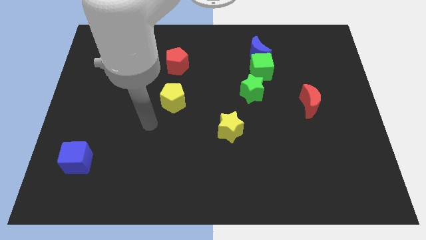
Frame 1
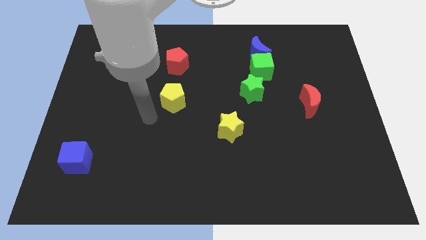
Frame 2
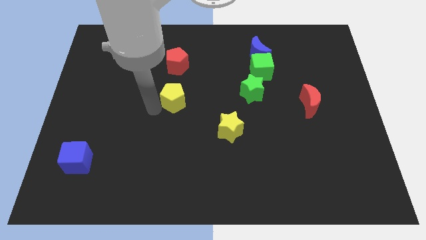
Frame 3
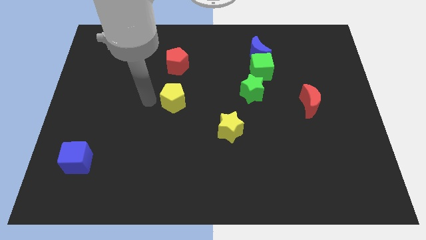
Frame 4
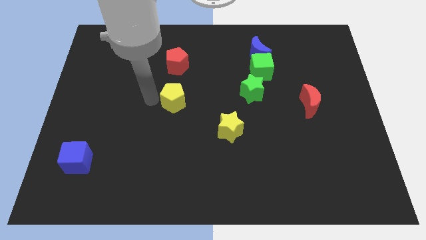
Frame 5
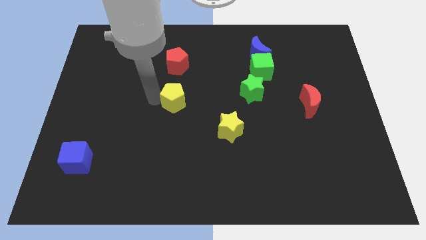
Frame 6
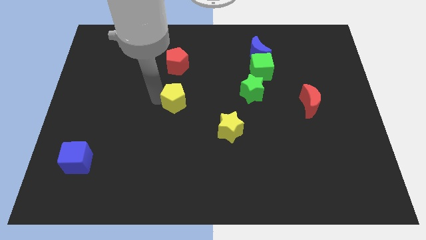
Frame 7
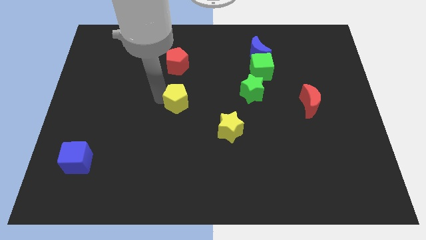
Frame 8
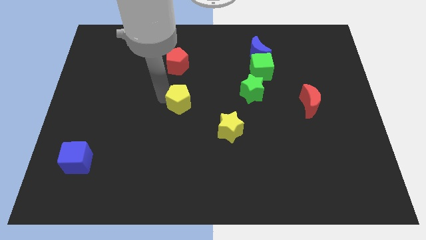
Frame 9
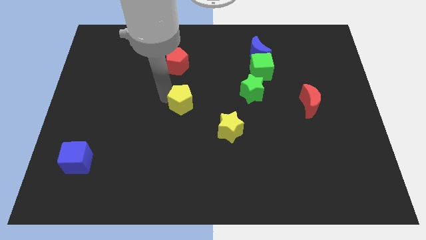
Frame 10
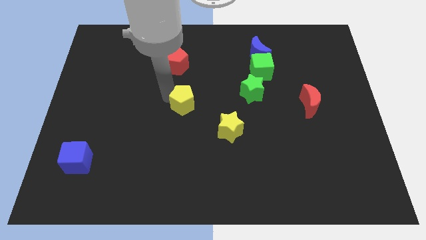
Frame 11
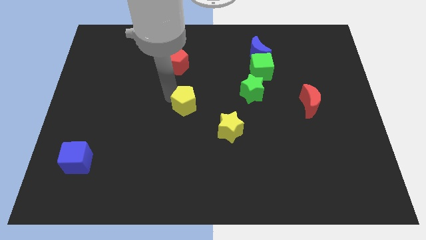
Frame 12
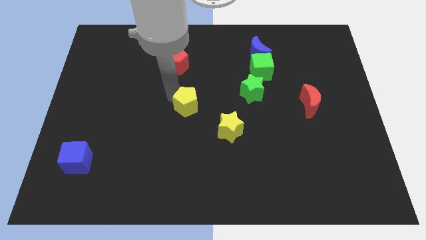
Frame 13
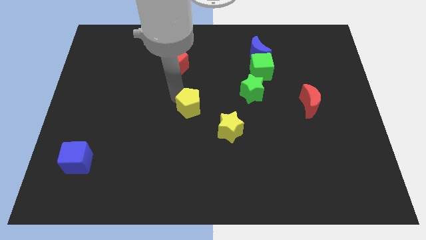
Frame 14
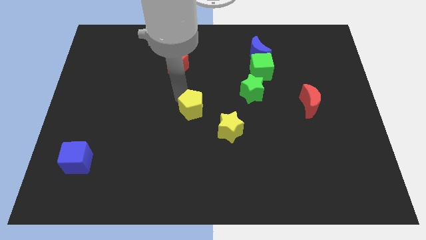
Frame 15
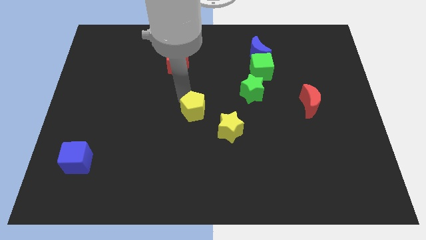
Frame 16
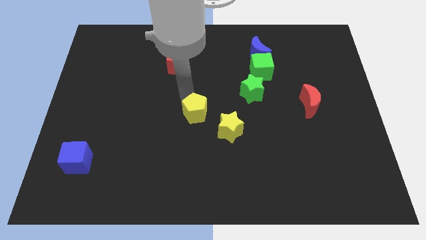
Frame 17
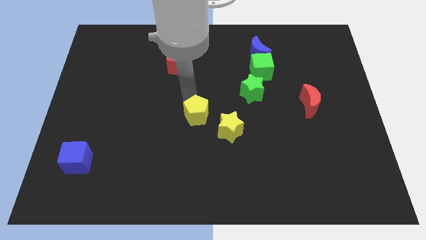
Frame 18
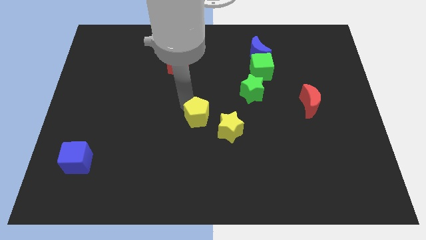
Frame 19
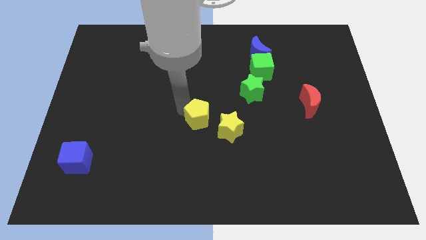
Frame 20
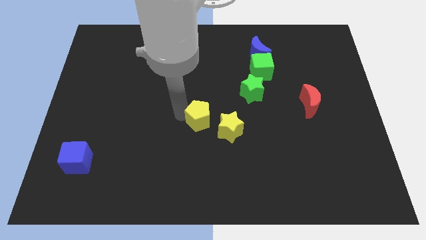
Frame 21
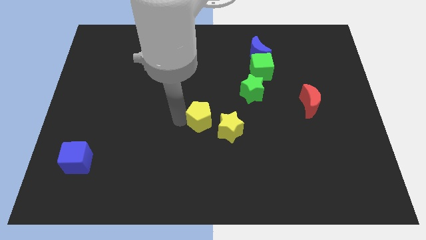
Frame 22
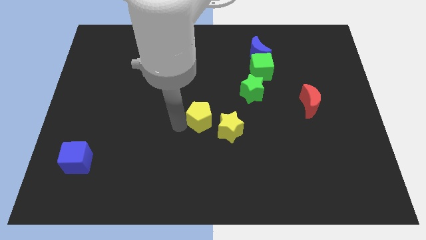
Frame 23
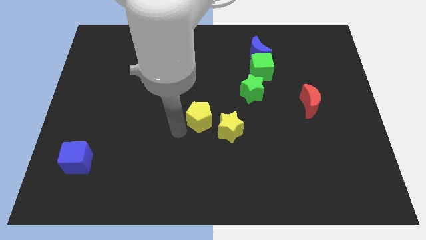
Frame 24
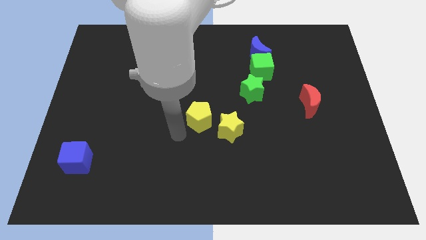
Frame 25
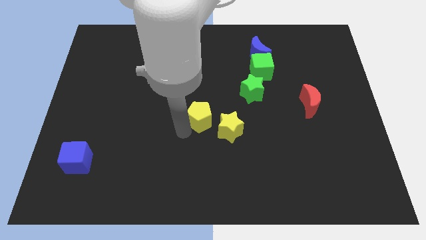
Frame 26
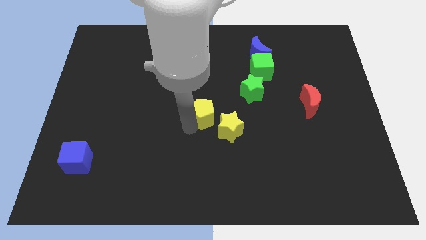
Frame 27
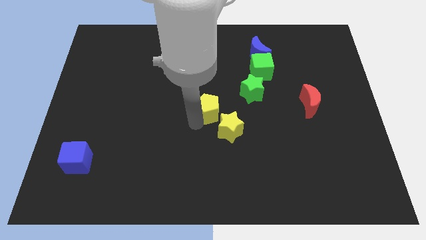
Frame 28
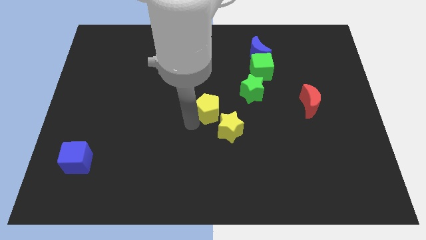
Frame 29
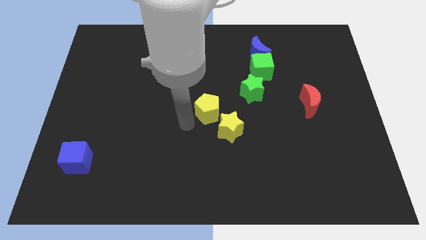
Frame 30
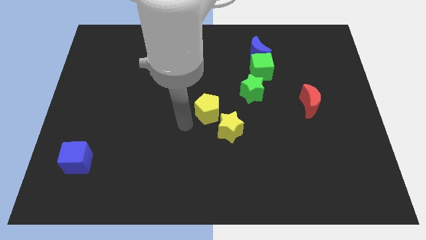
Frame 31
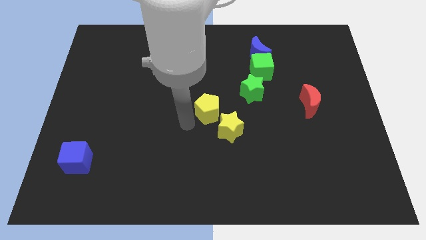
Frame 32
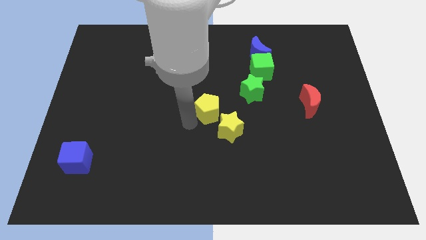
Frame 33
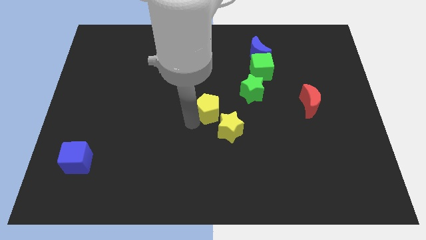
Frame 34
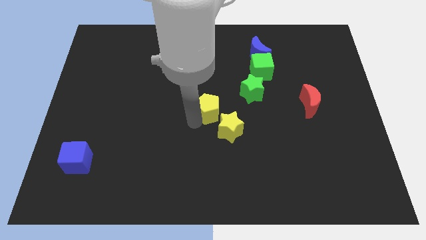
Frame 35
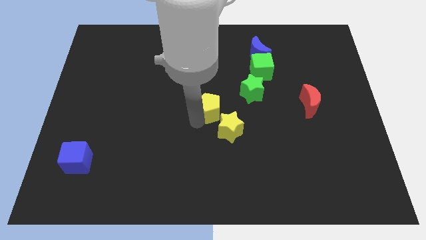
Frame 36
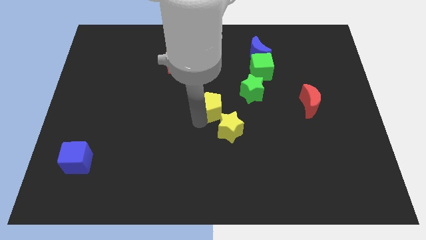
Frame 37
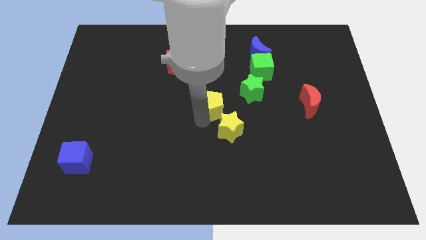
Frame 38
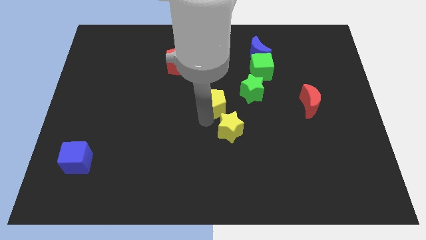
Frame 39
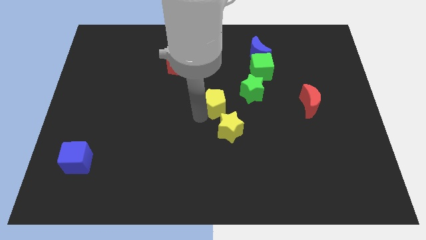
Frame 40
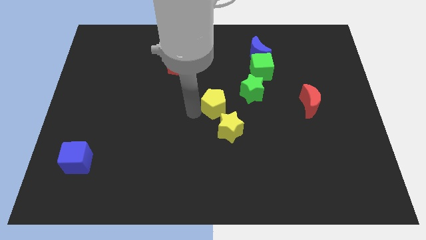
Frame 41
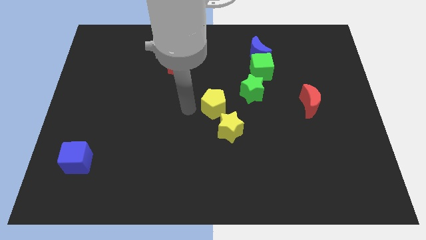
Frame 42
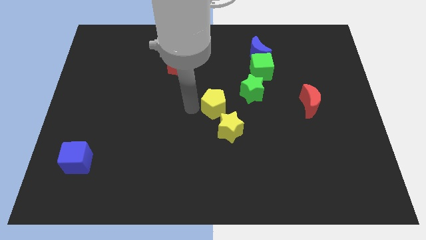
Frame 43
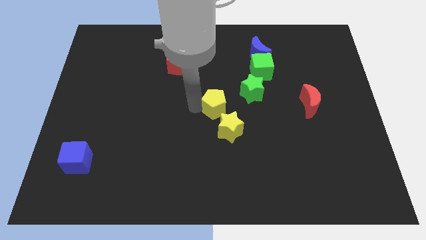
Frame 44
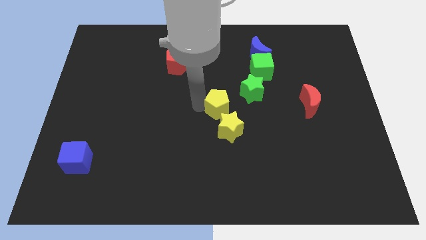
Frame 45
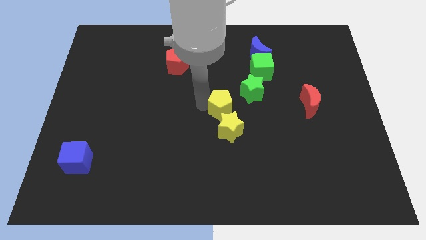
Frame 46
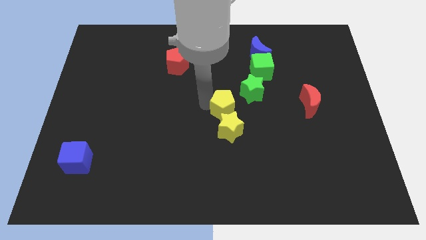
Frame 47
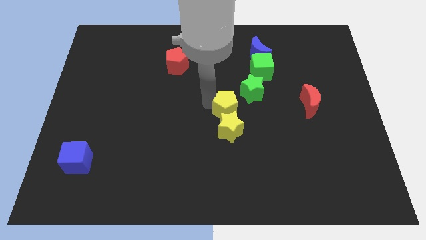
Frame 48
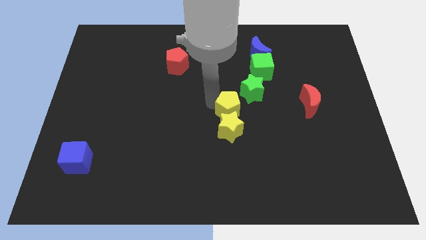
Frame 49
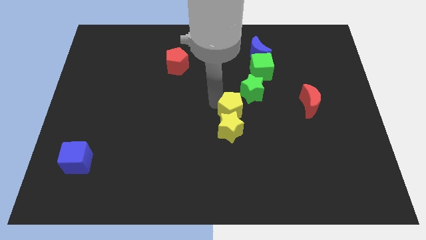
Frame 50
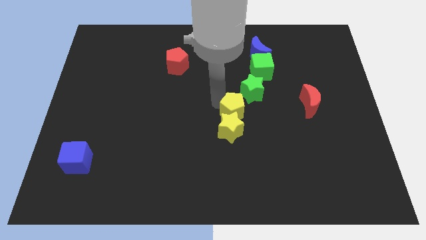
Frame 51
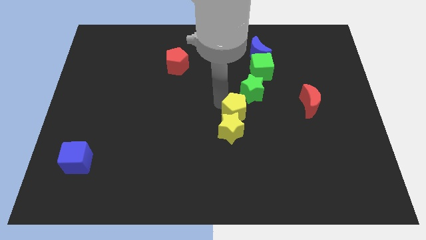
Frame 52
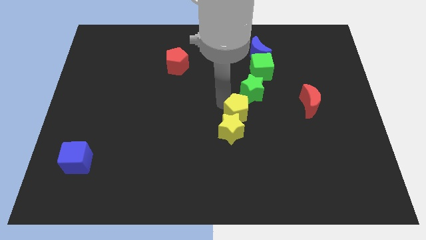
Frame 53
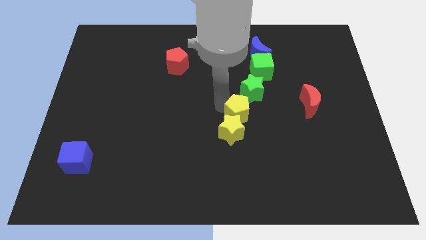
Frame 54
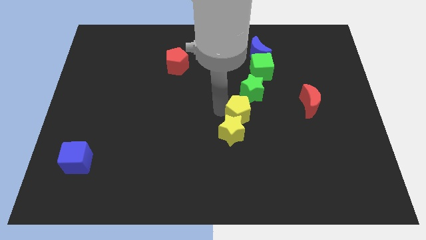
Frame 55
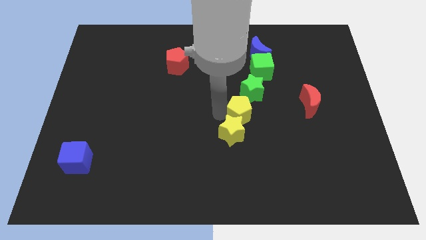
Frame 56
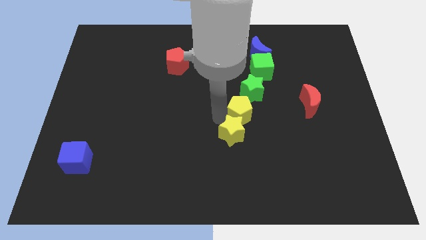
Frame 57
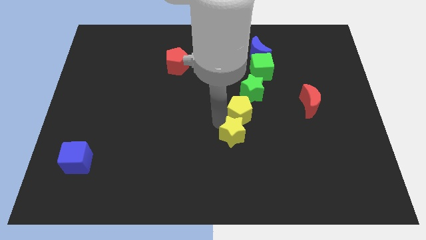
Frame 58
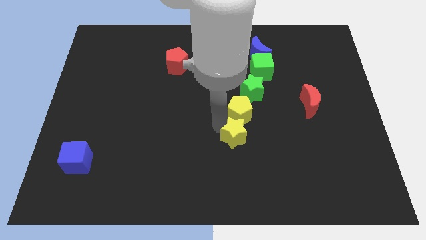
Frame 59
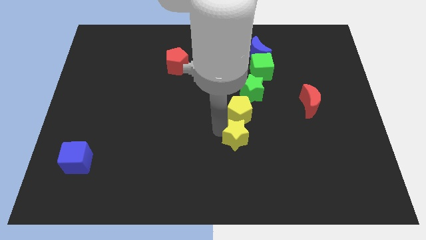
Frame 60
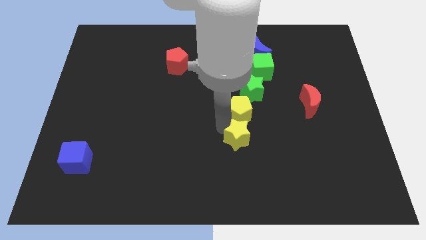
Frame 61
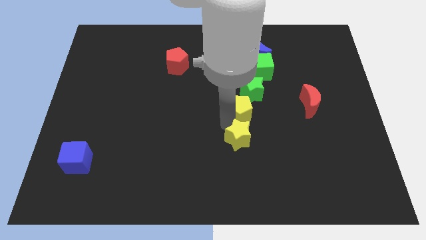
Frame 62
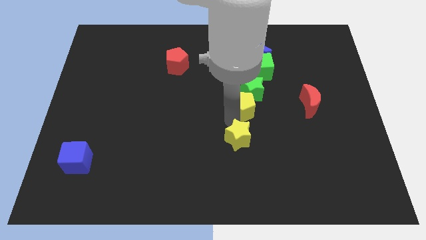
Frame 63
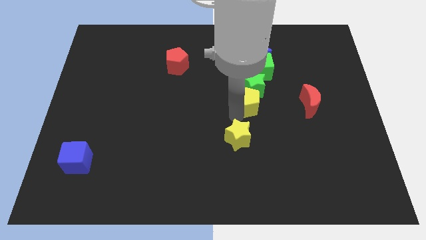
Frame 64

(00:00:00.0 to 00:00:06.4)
move the yellow pentagon below the green cube
